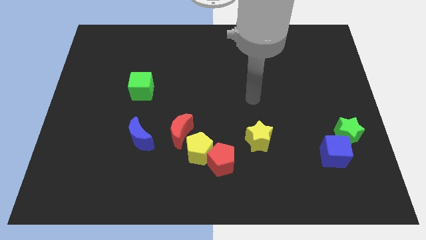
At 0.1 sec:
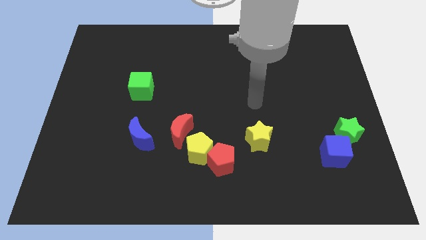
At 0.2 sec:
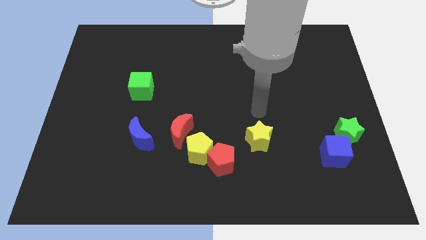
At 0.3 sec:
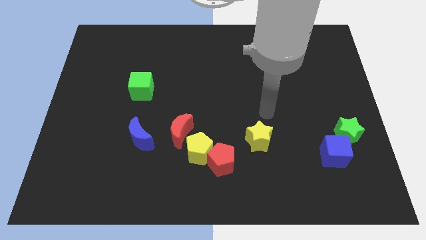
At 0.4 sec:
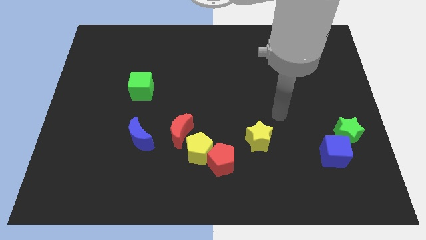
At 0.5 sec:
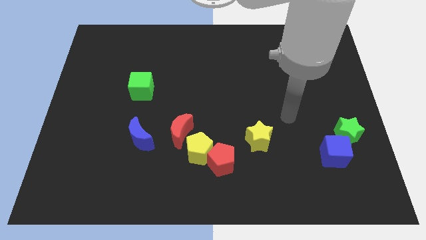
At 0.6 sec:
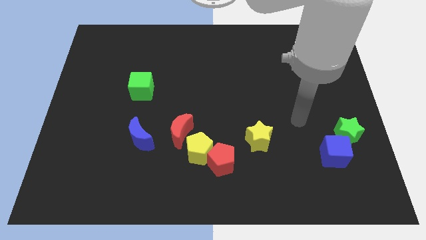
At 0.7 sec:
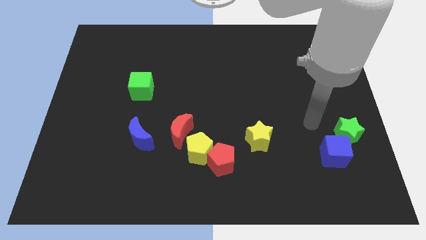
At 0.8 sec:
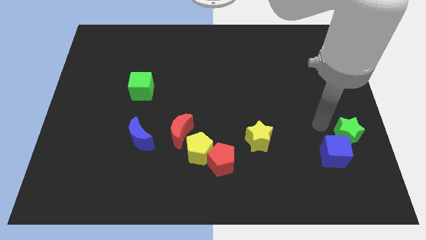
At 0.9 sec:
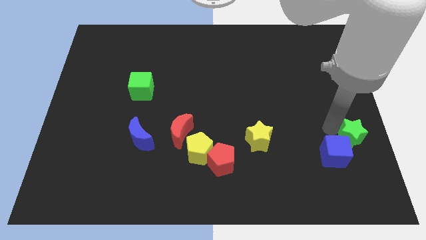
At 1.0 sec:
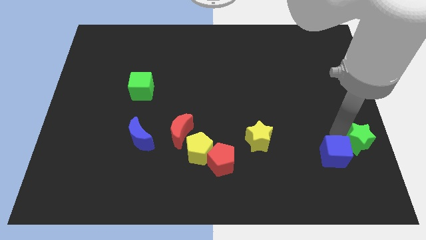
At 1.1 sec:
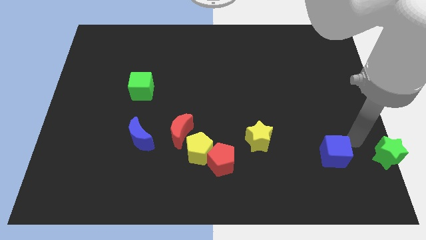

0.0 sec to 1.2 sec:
move the blue cube away from the green star

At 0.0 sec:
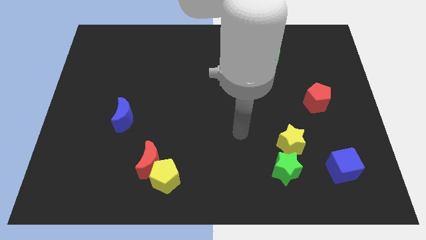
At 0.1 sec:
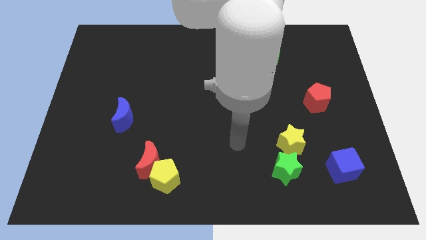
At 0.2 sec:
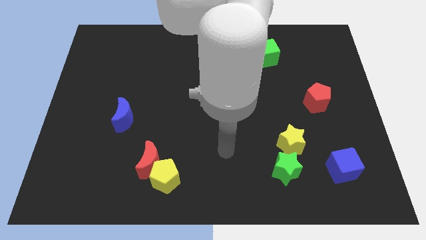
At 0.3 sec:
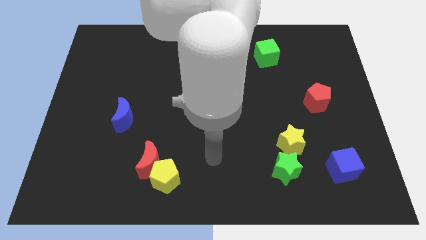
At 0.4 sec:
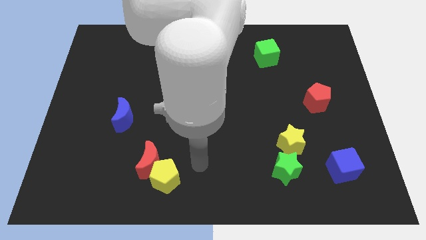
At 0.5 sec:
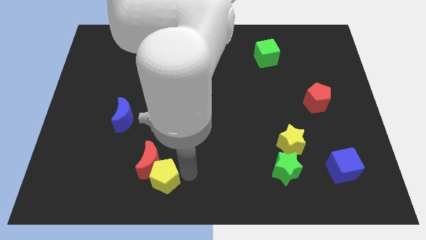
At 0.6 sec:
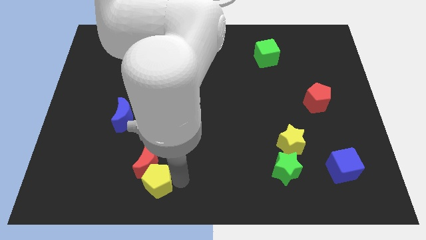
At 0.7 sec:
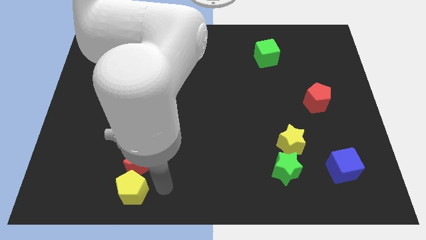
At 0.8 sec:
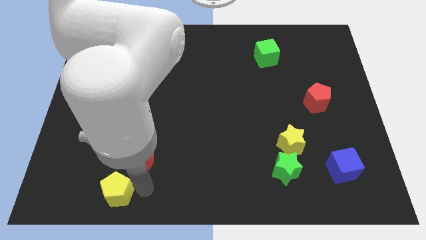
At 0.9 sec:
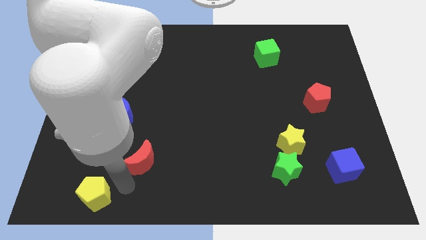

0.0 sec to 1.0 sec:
pull the red moon apart from the yellow pentagon

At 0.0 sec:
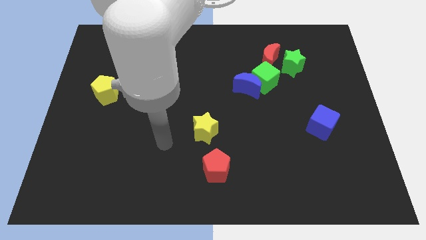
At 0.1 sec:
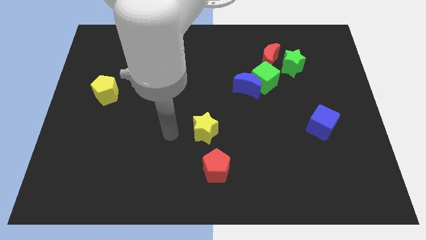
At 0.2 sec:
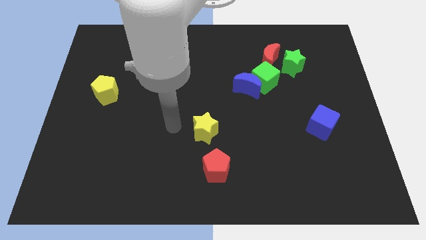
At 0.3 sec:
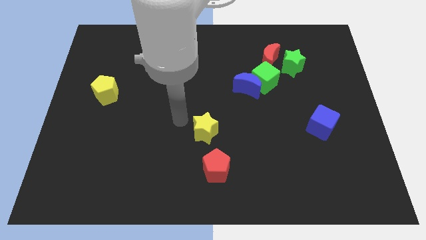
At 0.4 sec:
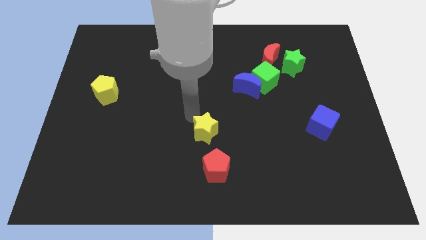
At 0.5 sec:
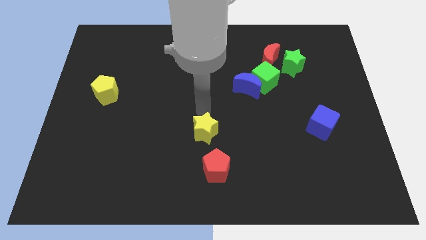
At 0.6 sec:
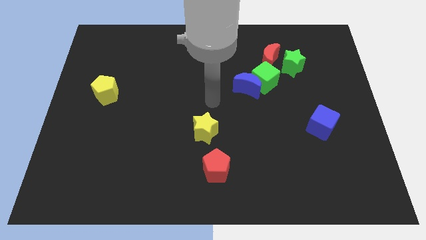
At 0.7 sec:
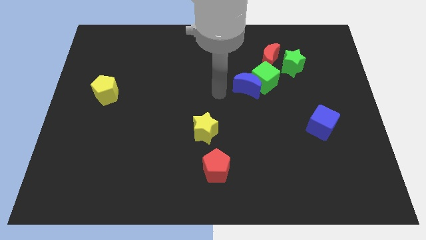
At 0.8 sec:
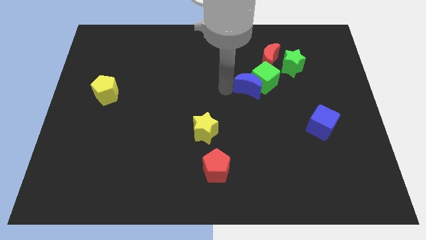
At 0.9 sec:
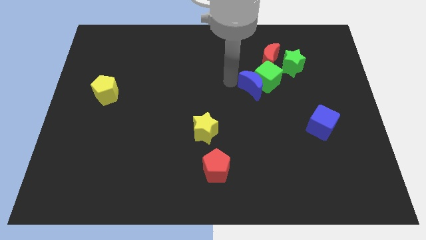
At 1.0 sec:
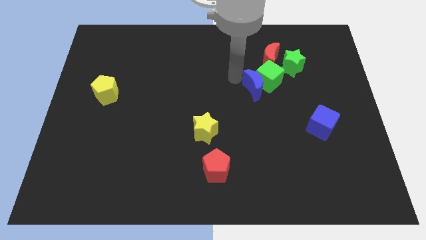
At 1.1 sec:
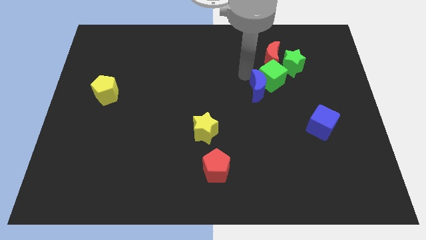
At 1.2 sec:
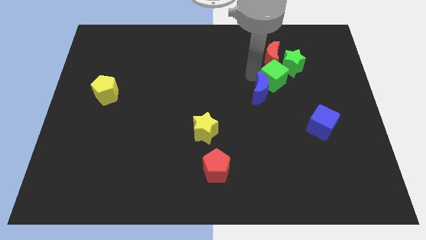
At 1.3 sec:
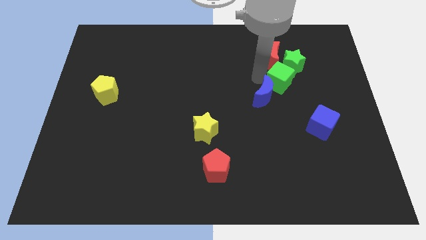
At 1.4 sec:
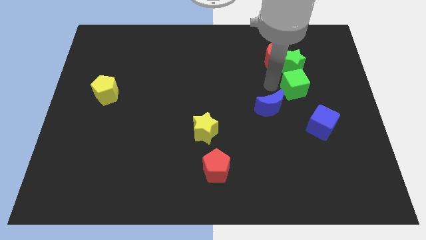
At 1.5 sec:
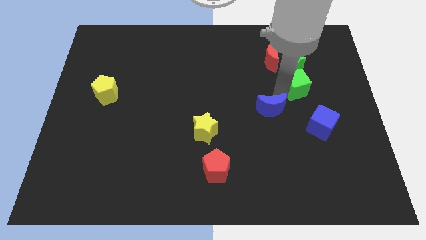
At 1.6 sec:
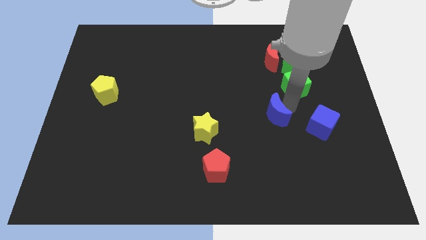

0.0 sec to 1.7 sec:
separate the blue moon from the green cube

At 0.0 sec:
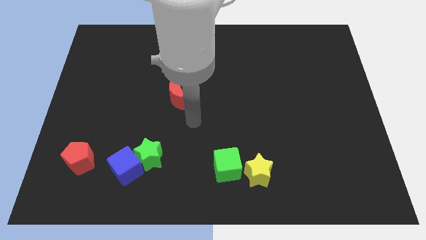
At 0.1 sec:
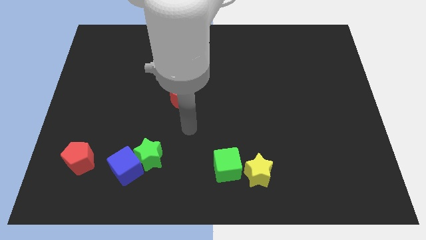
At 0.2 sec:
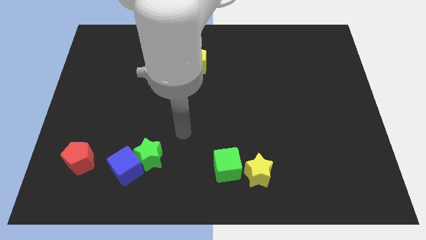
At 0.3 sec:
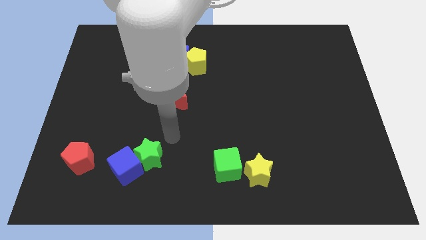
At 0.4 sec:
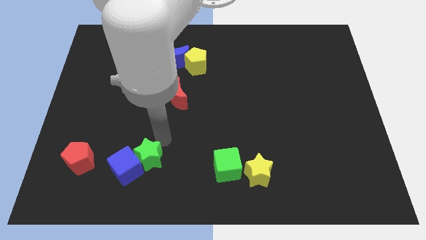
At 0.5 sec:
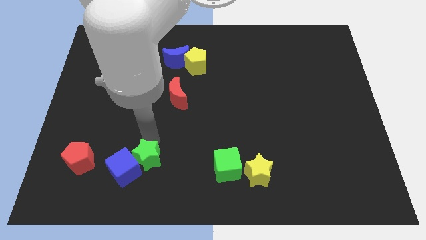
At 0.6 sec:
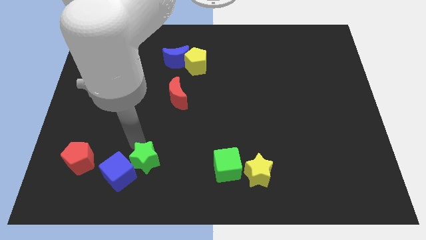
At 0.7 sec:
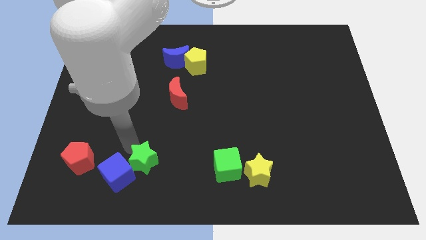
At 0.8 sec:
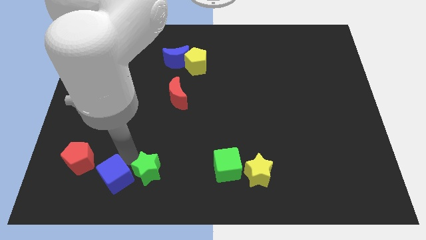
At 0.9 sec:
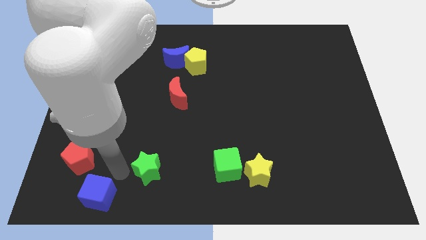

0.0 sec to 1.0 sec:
move the green star away from the blue cube

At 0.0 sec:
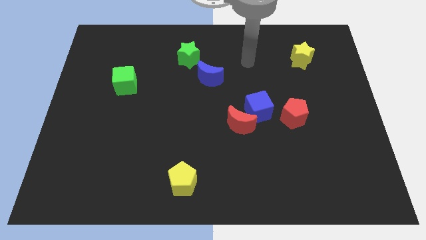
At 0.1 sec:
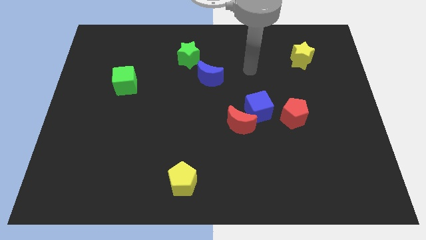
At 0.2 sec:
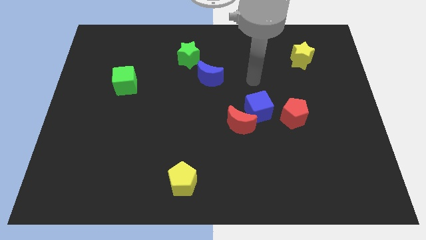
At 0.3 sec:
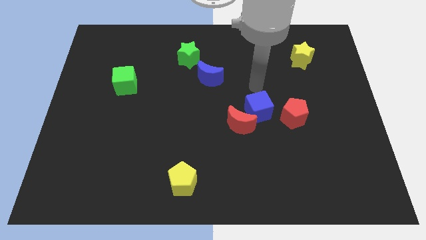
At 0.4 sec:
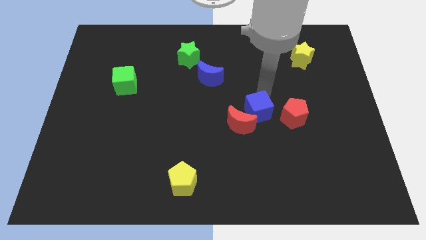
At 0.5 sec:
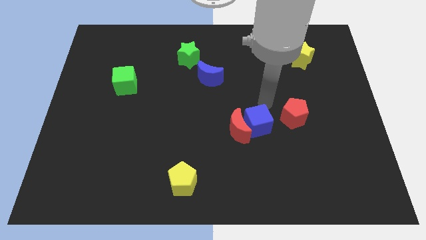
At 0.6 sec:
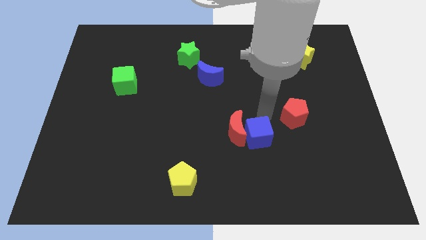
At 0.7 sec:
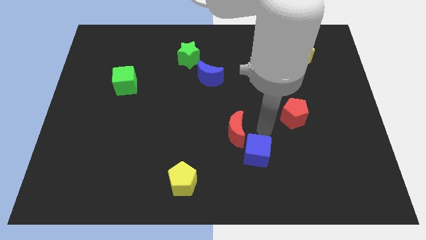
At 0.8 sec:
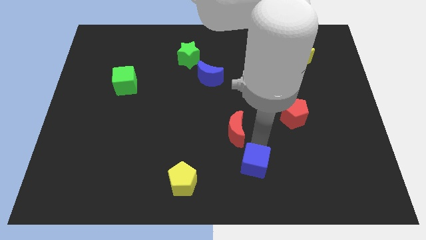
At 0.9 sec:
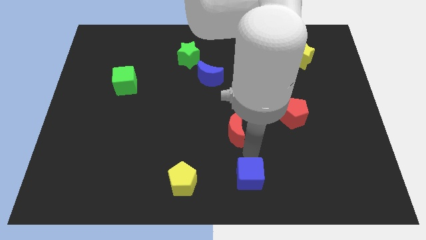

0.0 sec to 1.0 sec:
move the red moon away from the blue cube

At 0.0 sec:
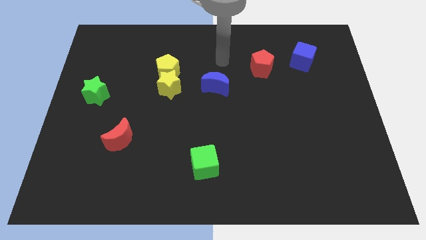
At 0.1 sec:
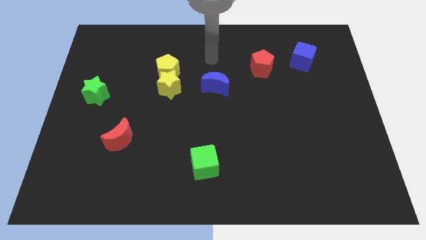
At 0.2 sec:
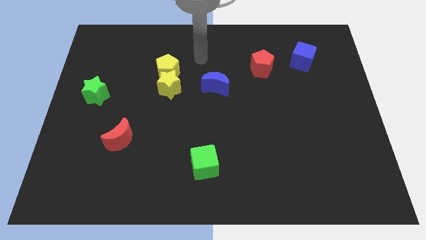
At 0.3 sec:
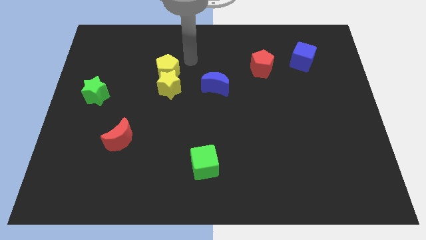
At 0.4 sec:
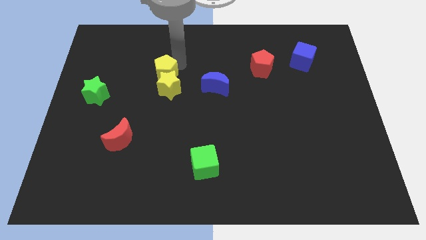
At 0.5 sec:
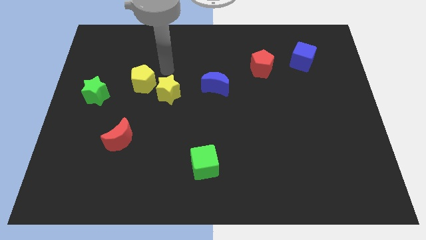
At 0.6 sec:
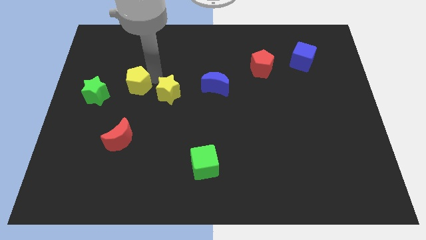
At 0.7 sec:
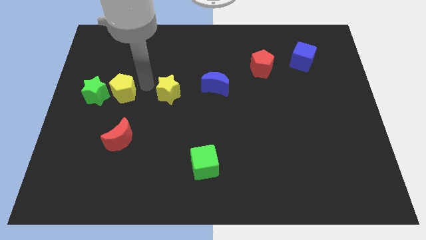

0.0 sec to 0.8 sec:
separate the yellow star from the yellow pentagon

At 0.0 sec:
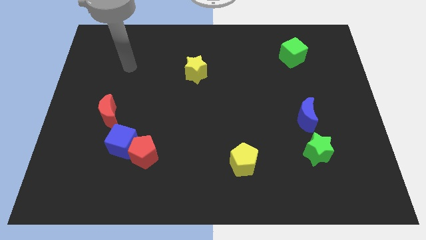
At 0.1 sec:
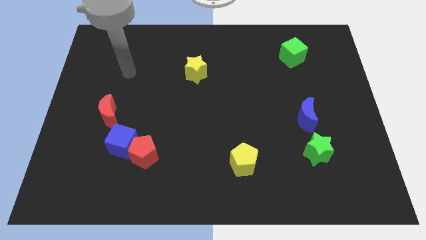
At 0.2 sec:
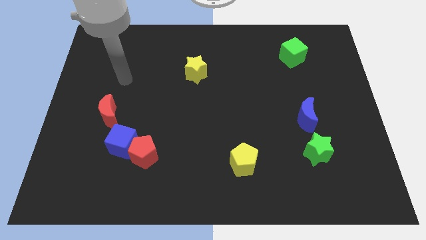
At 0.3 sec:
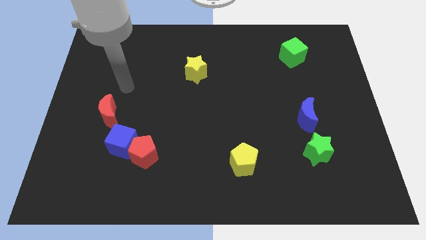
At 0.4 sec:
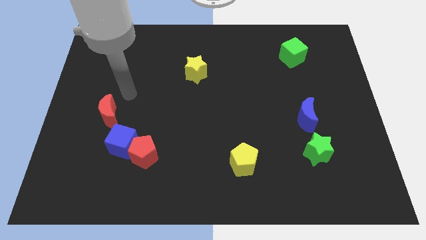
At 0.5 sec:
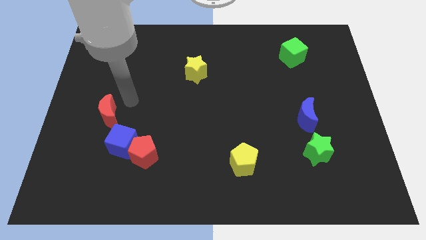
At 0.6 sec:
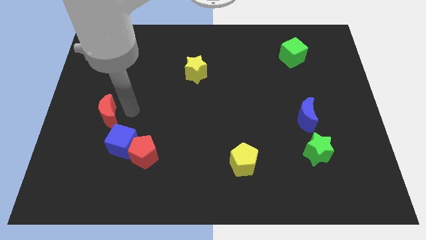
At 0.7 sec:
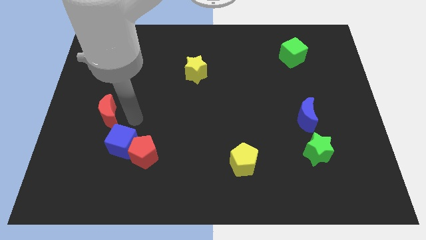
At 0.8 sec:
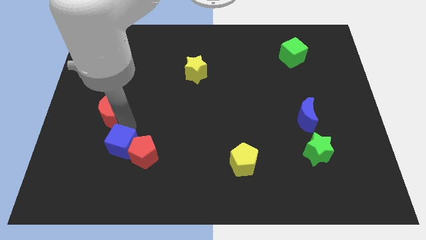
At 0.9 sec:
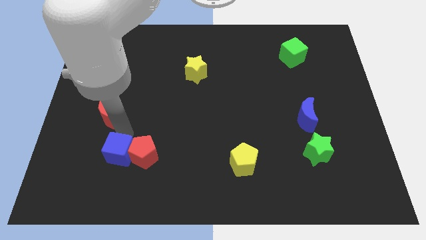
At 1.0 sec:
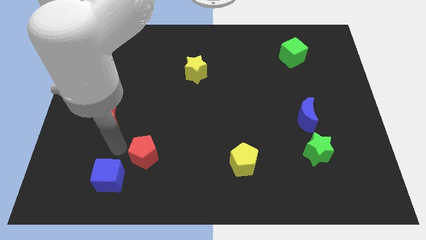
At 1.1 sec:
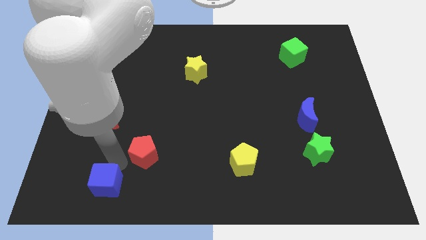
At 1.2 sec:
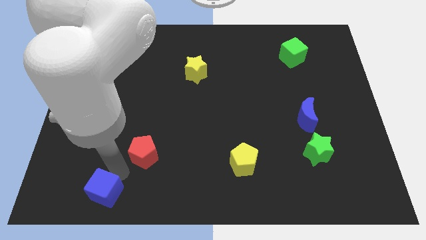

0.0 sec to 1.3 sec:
separate the red pentagon from the blue cube

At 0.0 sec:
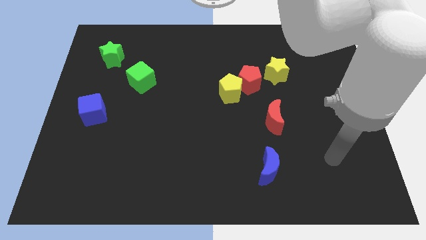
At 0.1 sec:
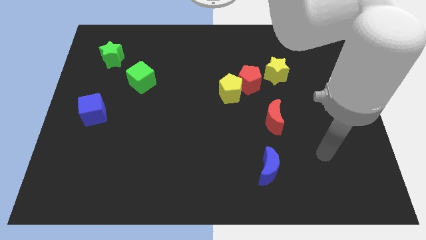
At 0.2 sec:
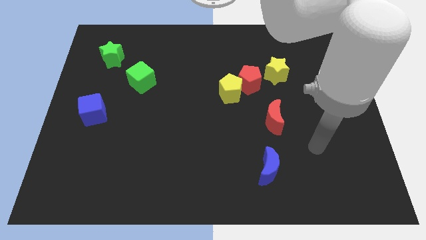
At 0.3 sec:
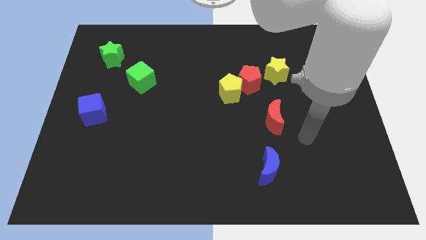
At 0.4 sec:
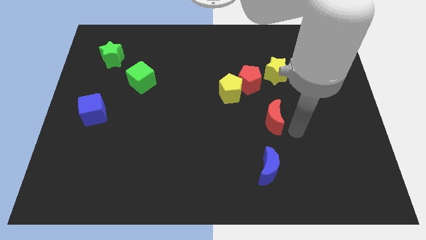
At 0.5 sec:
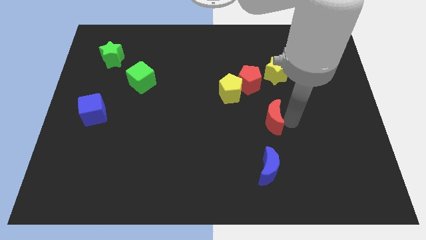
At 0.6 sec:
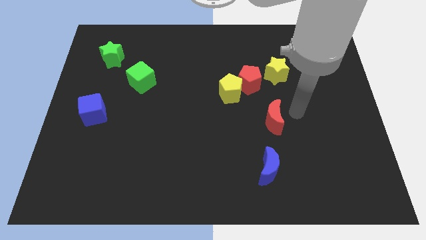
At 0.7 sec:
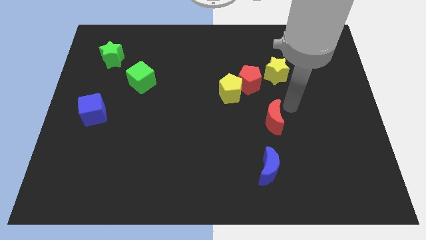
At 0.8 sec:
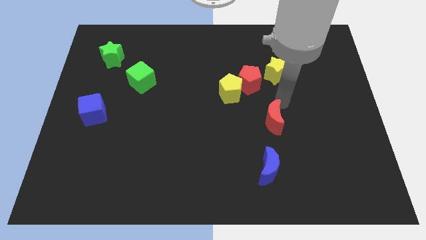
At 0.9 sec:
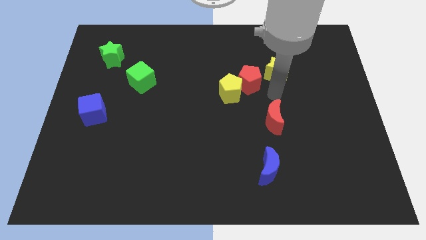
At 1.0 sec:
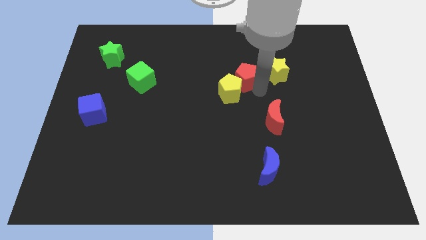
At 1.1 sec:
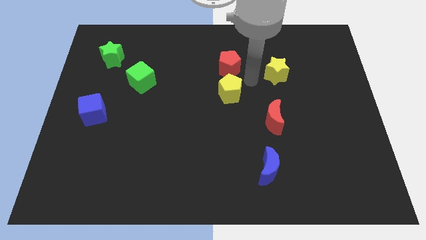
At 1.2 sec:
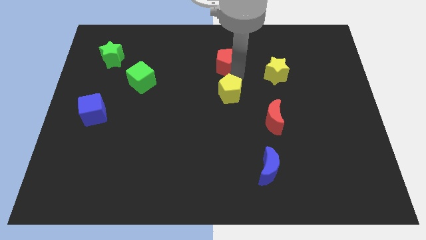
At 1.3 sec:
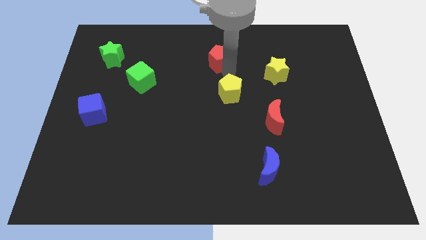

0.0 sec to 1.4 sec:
separate the yellow pentagon from the red pentagon
